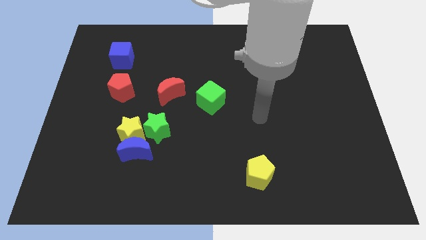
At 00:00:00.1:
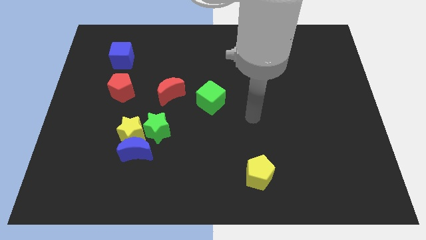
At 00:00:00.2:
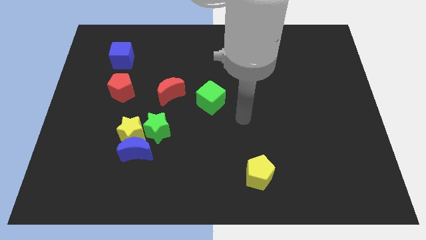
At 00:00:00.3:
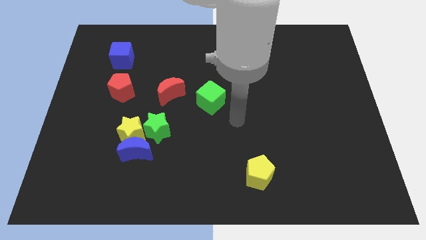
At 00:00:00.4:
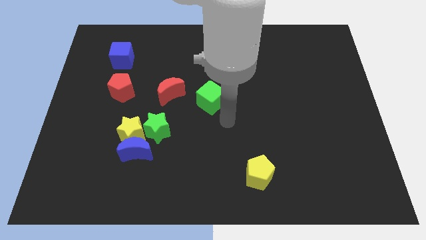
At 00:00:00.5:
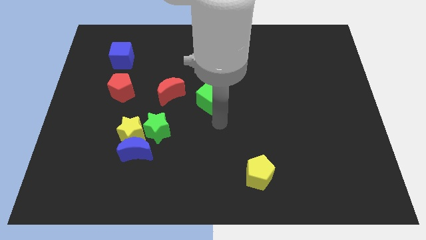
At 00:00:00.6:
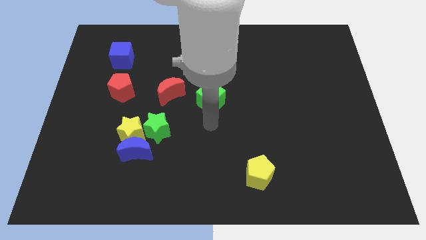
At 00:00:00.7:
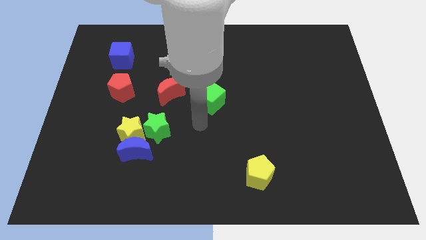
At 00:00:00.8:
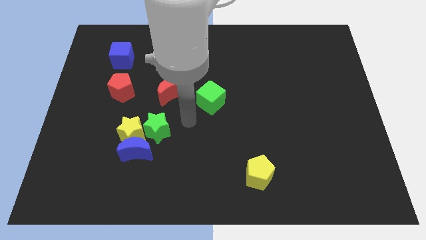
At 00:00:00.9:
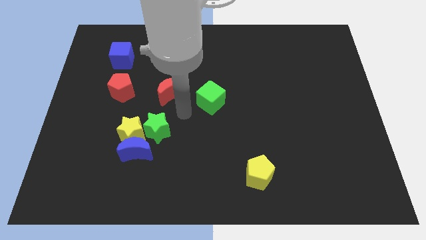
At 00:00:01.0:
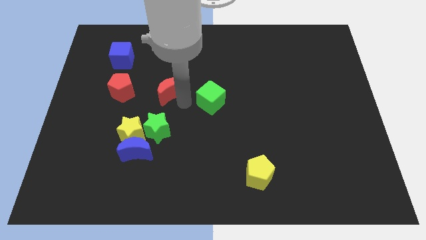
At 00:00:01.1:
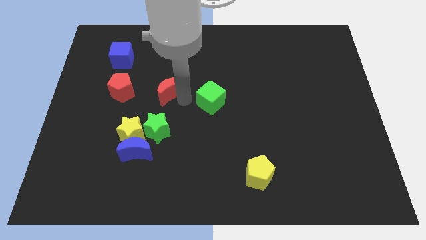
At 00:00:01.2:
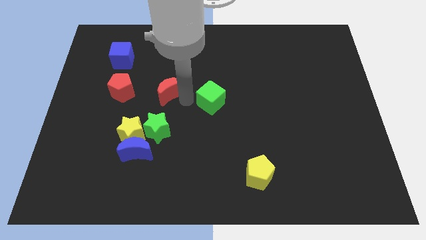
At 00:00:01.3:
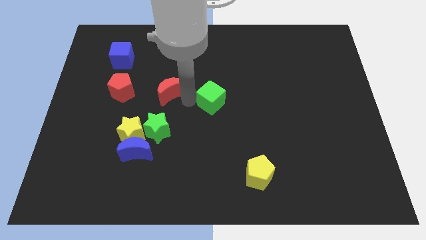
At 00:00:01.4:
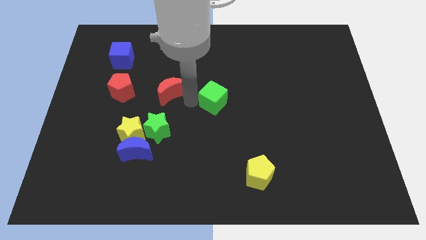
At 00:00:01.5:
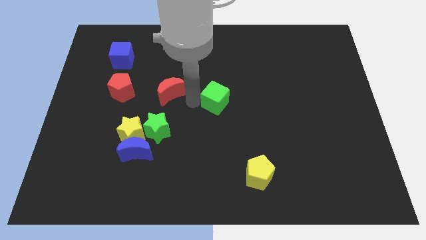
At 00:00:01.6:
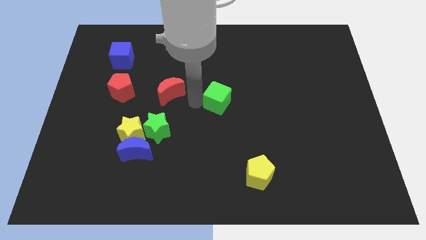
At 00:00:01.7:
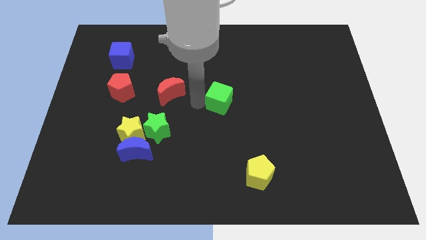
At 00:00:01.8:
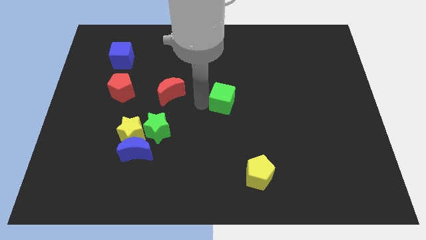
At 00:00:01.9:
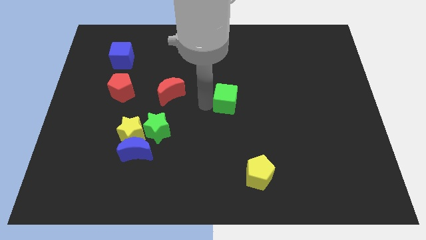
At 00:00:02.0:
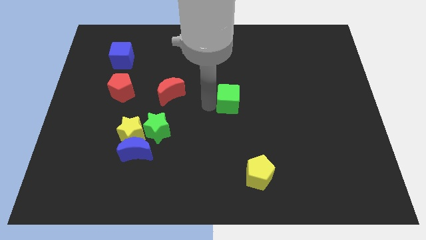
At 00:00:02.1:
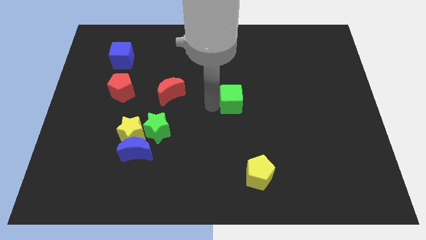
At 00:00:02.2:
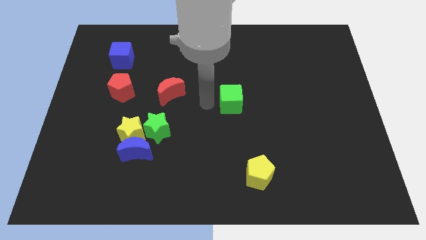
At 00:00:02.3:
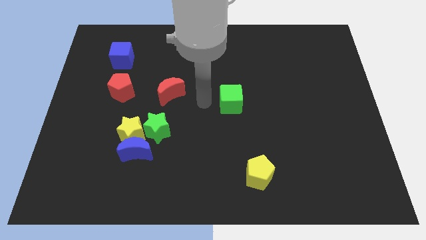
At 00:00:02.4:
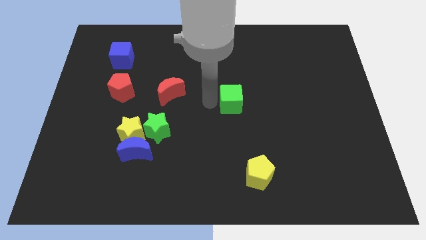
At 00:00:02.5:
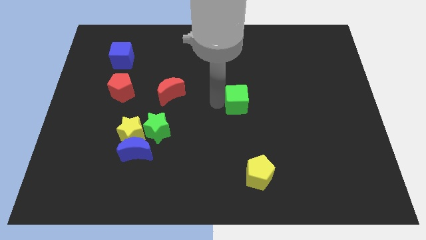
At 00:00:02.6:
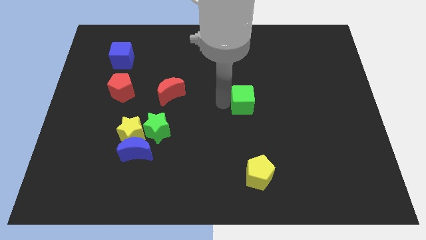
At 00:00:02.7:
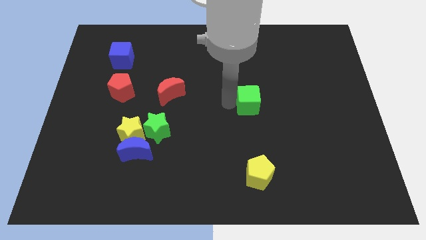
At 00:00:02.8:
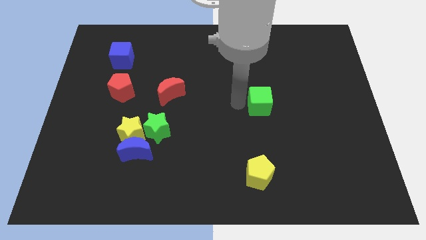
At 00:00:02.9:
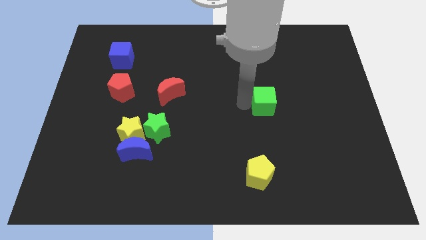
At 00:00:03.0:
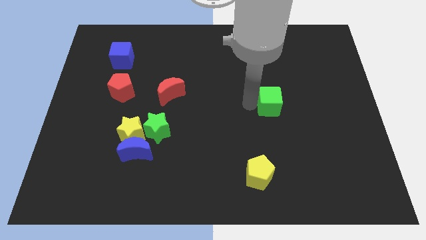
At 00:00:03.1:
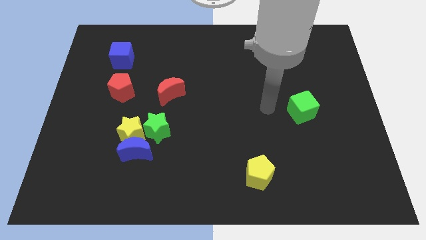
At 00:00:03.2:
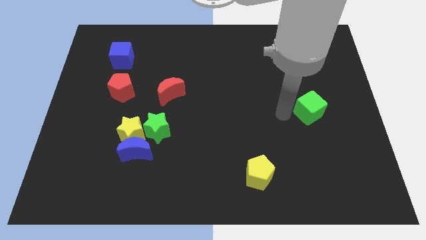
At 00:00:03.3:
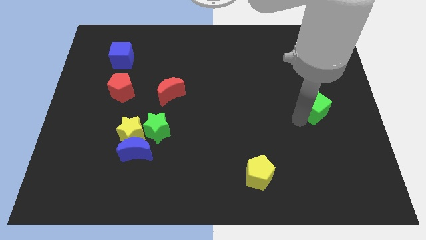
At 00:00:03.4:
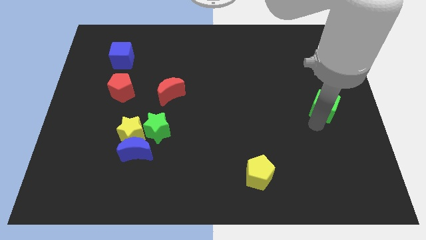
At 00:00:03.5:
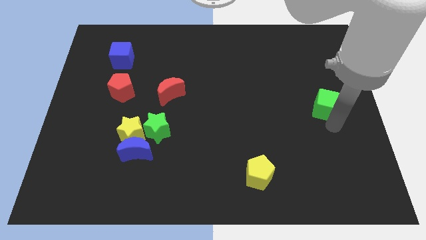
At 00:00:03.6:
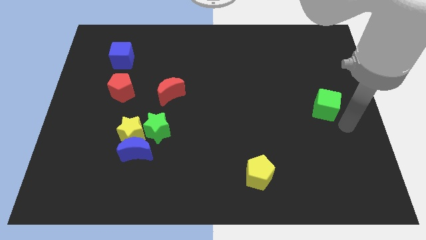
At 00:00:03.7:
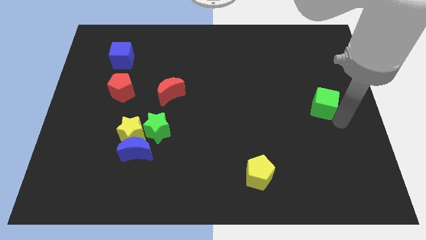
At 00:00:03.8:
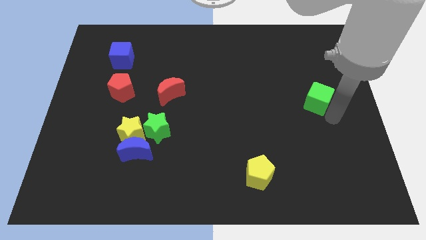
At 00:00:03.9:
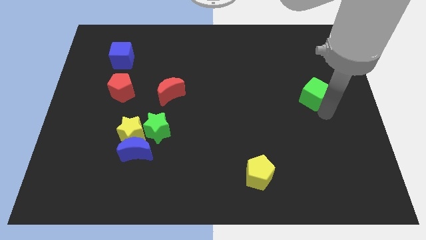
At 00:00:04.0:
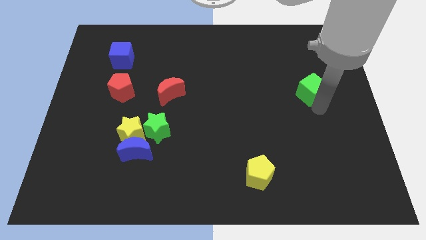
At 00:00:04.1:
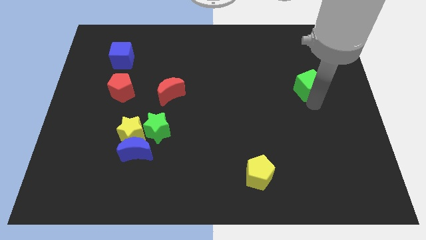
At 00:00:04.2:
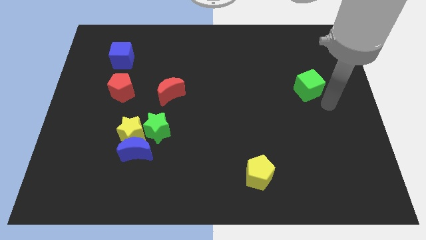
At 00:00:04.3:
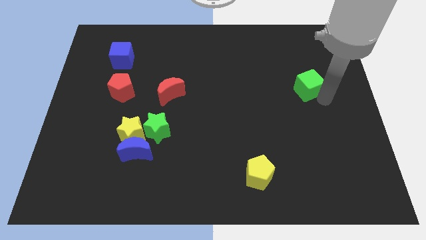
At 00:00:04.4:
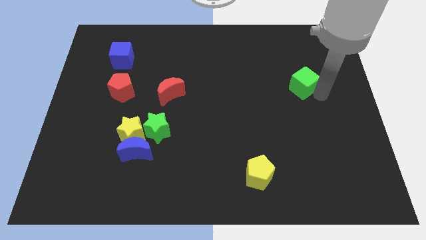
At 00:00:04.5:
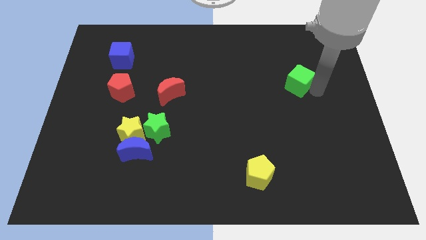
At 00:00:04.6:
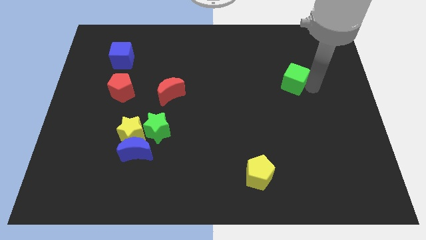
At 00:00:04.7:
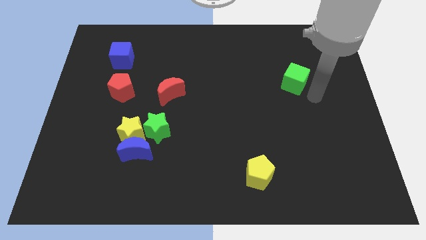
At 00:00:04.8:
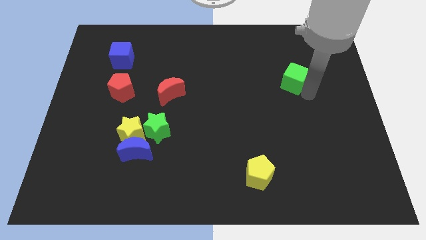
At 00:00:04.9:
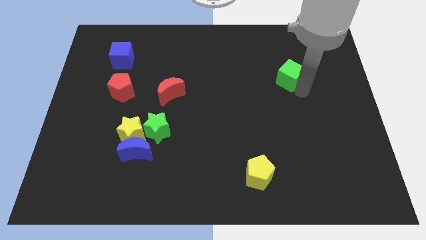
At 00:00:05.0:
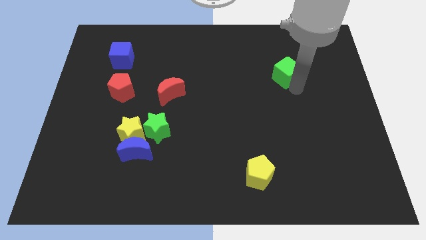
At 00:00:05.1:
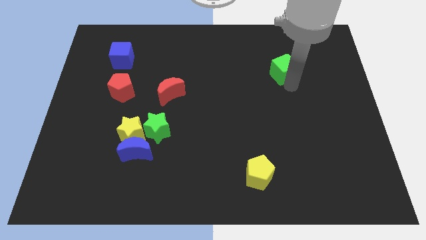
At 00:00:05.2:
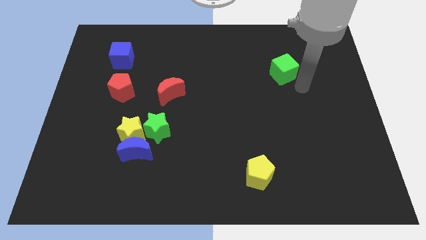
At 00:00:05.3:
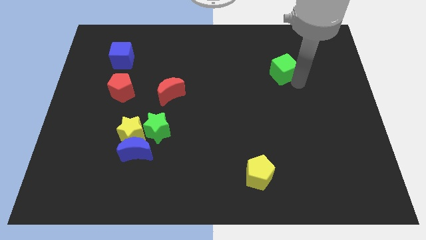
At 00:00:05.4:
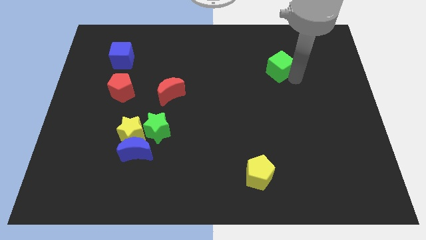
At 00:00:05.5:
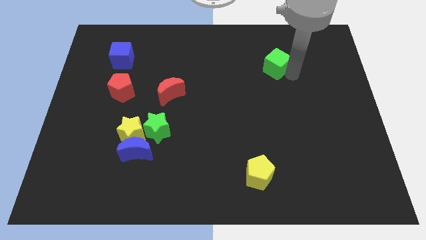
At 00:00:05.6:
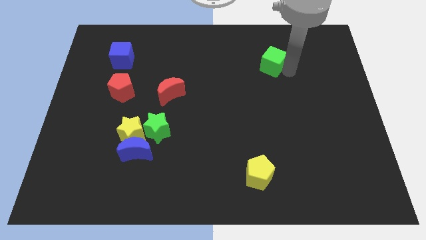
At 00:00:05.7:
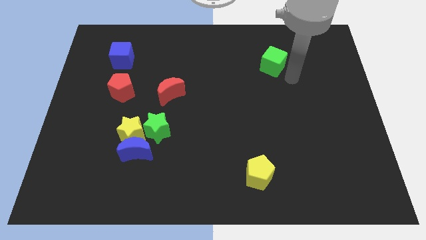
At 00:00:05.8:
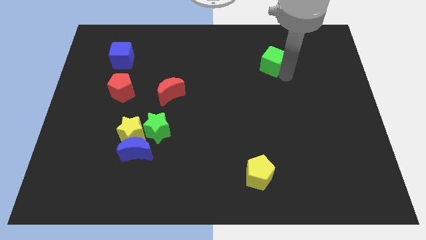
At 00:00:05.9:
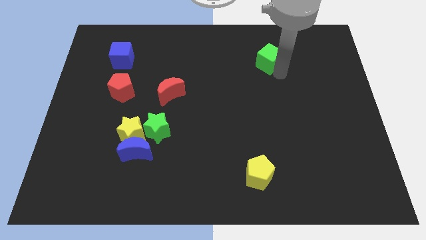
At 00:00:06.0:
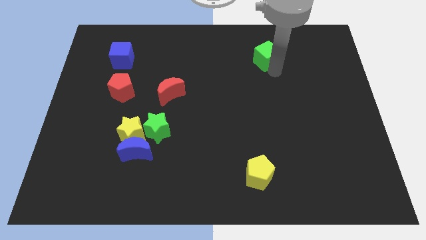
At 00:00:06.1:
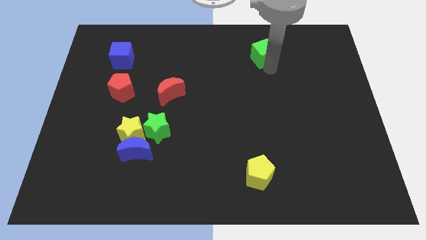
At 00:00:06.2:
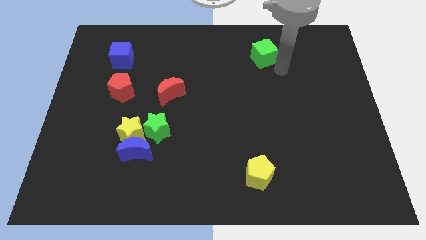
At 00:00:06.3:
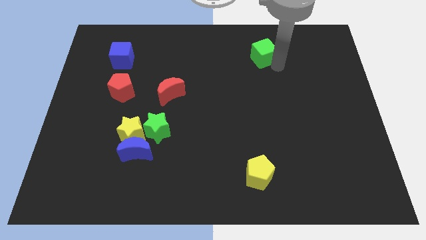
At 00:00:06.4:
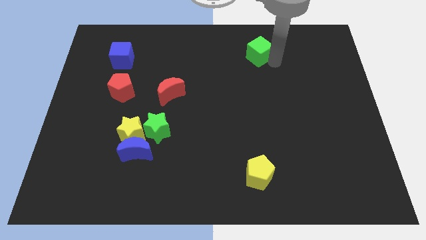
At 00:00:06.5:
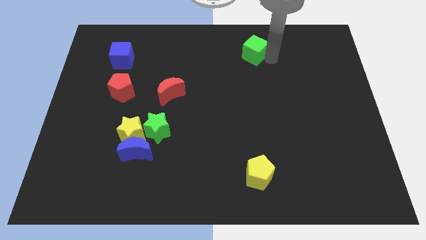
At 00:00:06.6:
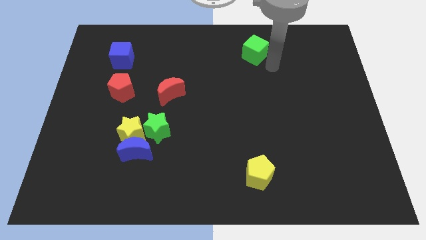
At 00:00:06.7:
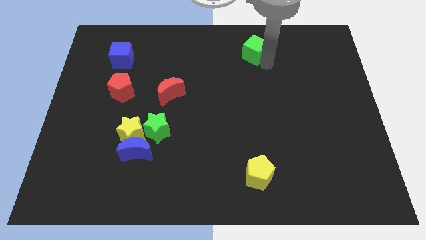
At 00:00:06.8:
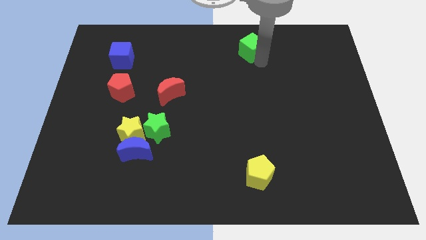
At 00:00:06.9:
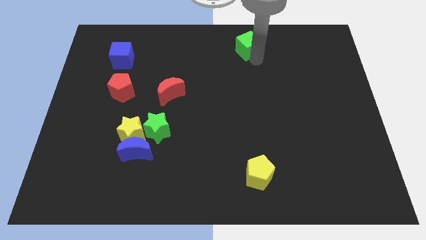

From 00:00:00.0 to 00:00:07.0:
push the green cube to the top
